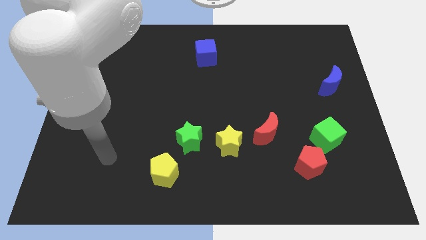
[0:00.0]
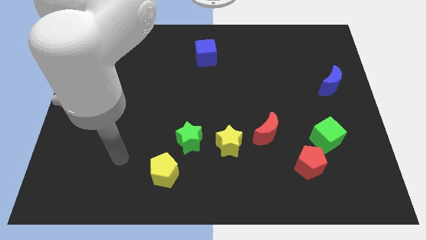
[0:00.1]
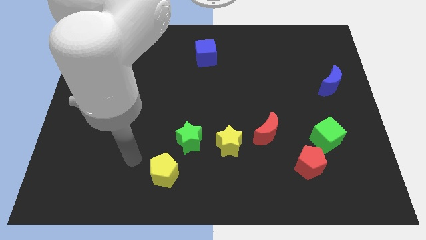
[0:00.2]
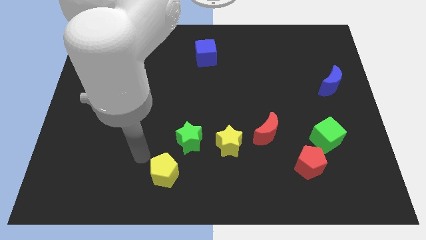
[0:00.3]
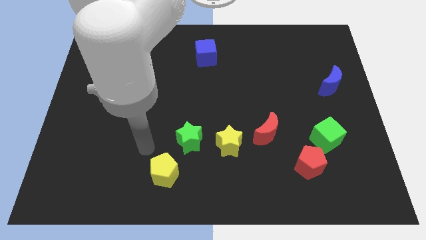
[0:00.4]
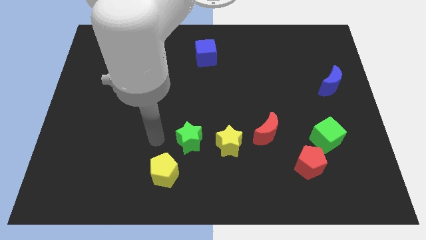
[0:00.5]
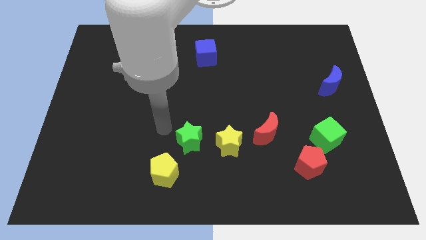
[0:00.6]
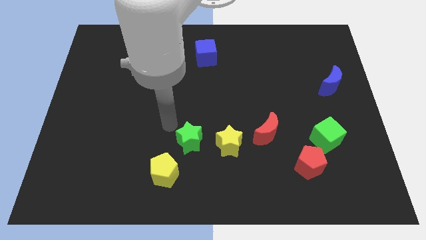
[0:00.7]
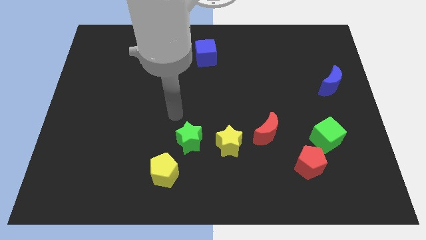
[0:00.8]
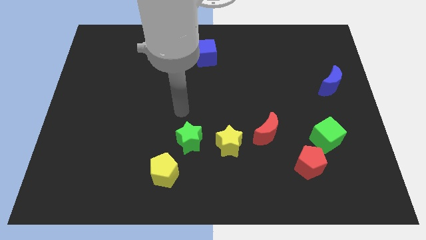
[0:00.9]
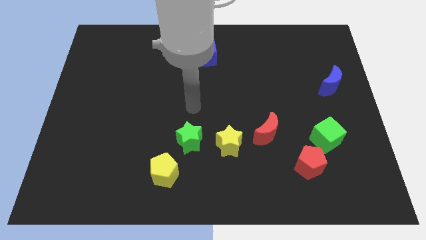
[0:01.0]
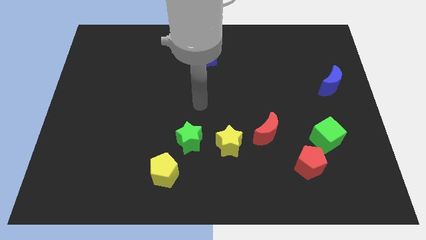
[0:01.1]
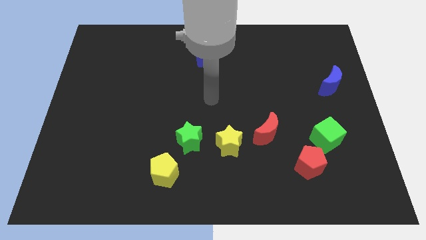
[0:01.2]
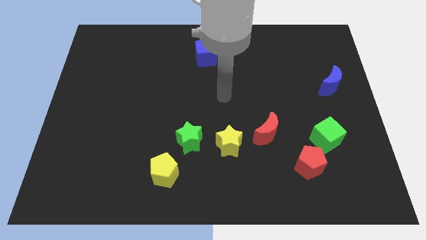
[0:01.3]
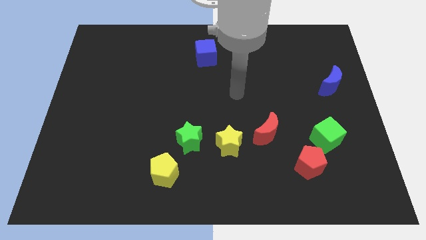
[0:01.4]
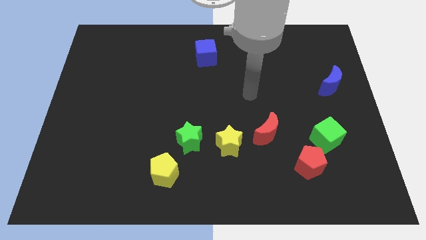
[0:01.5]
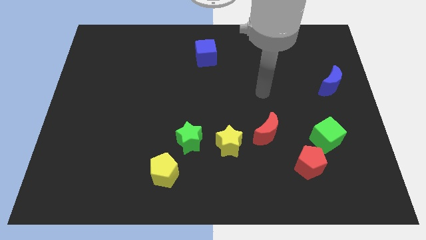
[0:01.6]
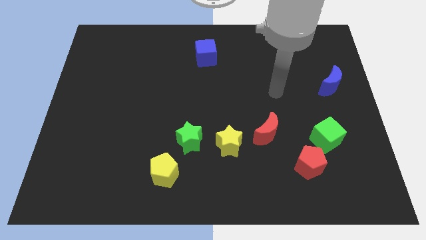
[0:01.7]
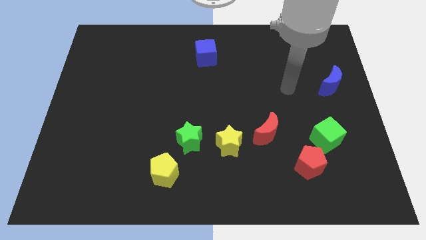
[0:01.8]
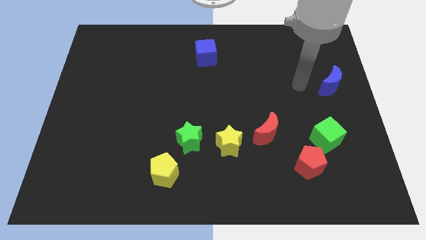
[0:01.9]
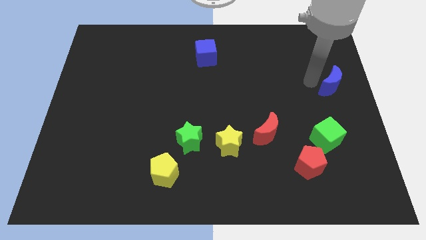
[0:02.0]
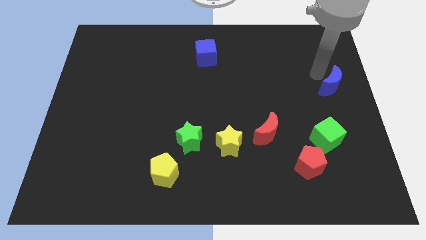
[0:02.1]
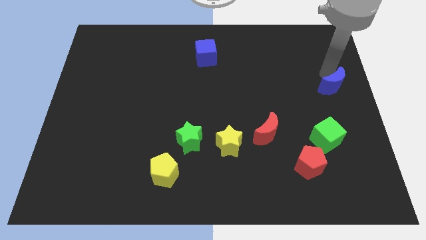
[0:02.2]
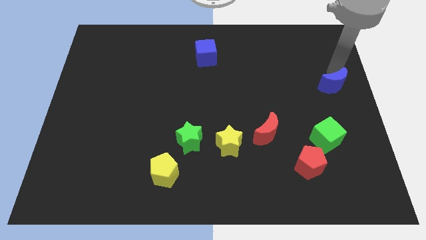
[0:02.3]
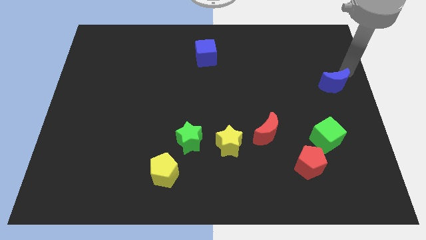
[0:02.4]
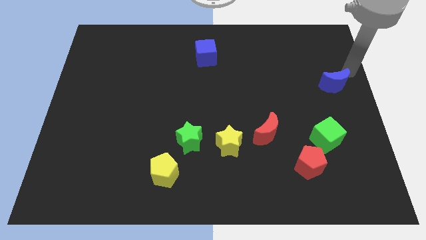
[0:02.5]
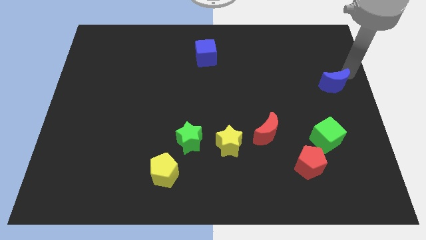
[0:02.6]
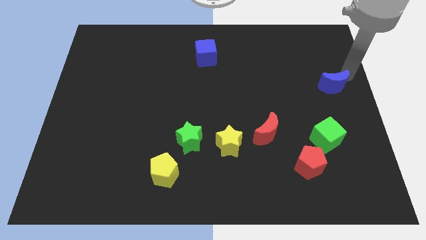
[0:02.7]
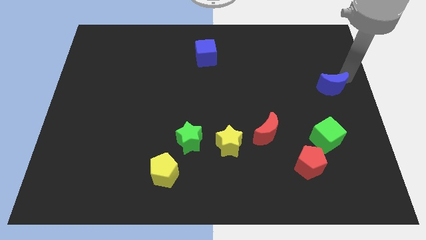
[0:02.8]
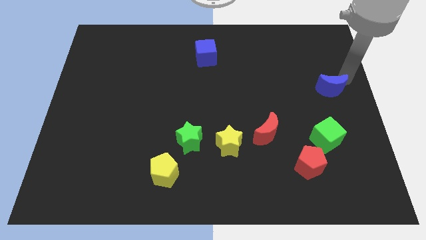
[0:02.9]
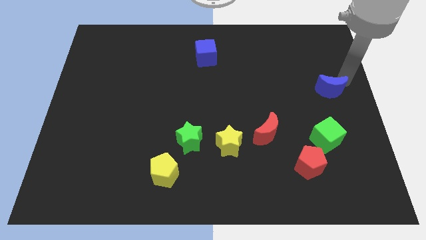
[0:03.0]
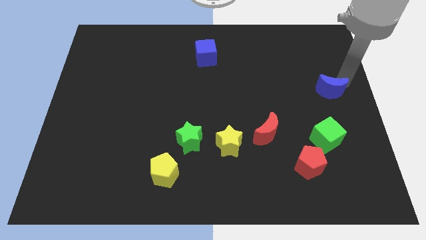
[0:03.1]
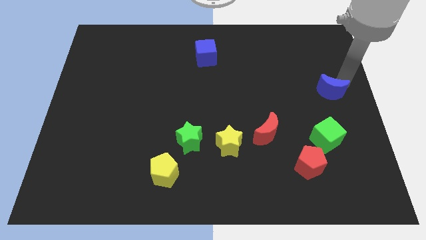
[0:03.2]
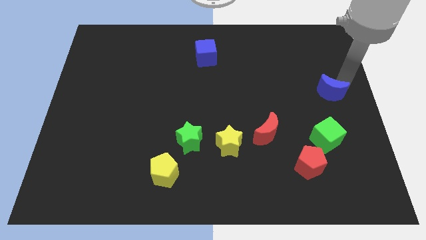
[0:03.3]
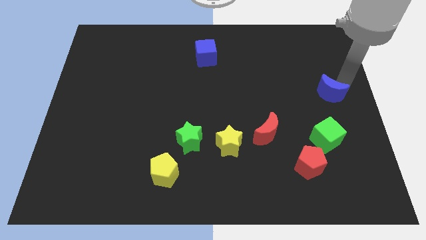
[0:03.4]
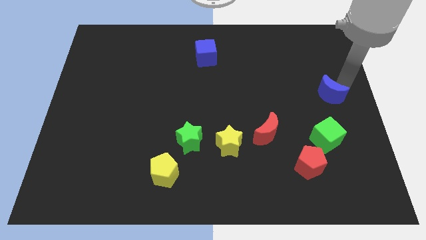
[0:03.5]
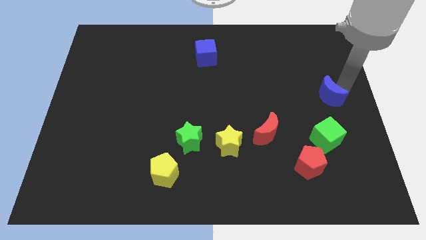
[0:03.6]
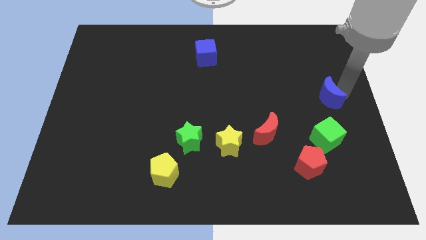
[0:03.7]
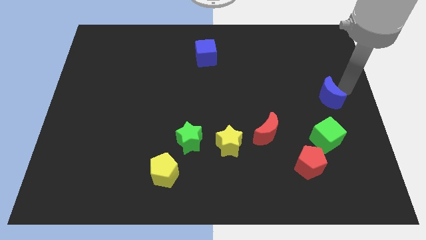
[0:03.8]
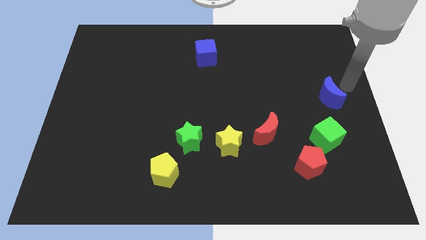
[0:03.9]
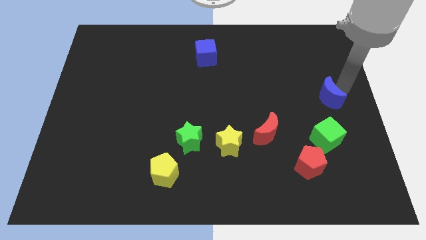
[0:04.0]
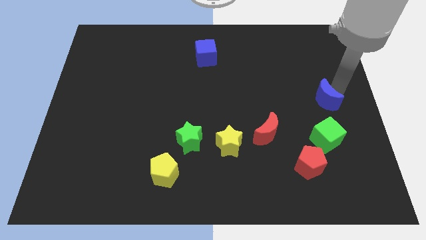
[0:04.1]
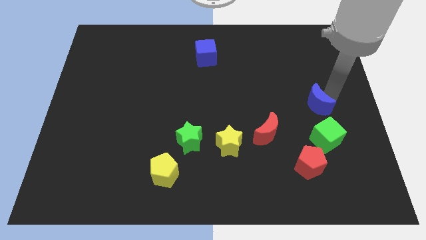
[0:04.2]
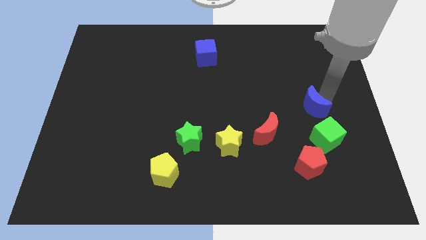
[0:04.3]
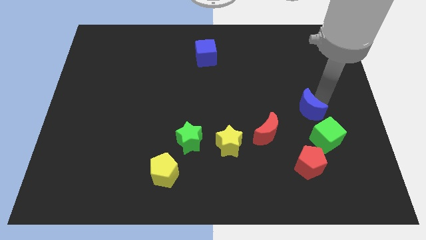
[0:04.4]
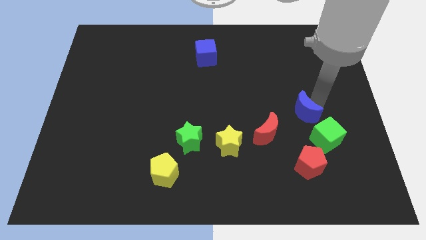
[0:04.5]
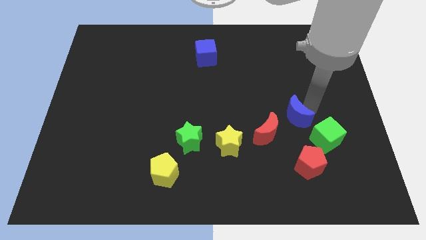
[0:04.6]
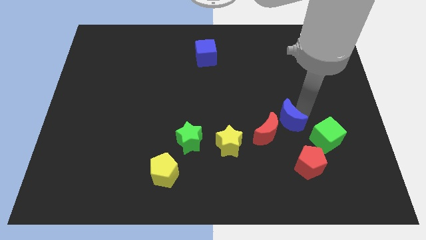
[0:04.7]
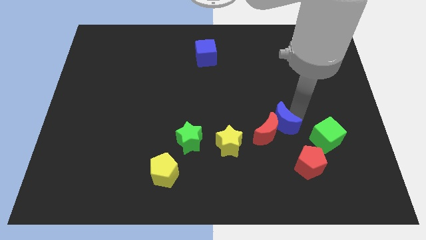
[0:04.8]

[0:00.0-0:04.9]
put the blue moon close to the red moon

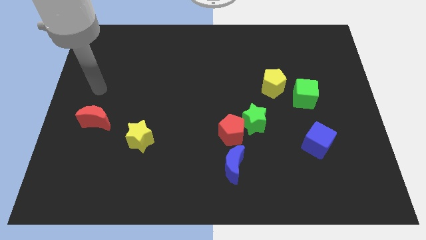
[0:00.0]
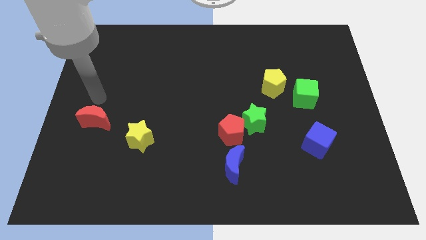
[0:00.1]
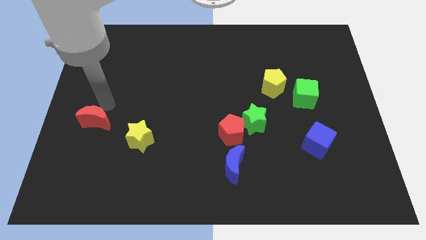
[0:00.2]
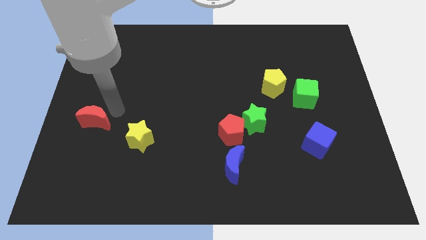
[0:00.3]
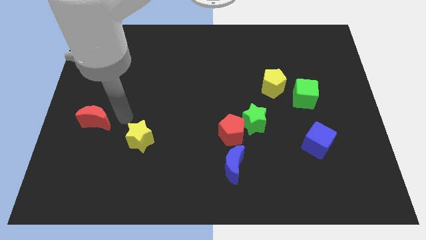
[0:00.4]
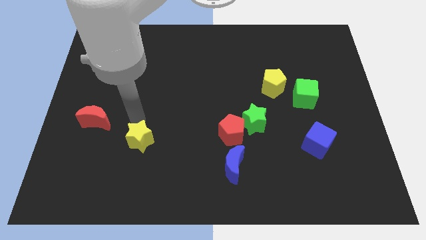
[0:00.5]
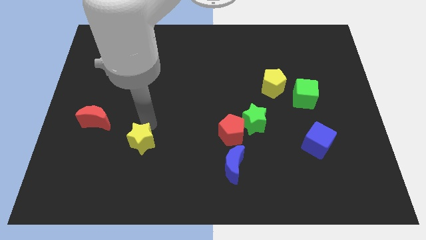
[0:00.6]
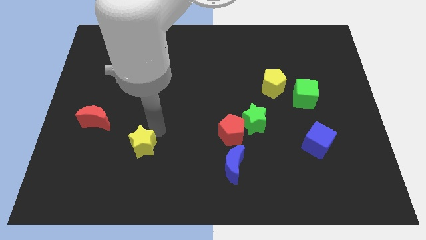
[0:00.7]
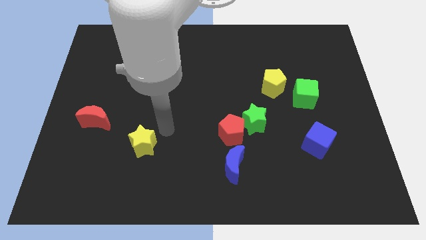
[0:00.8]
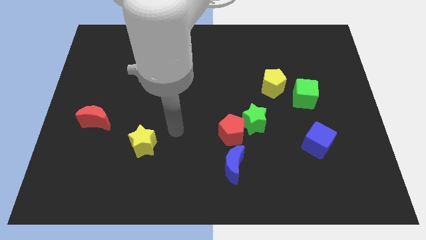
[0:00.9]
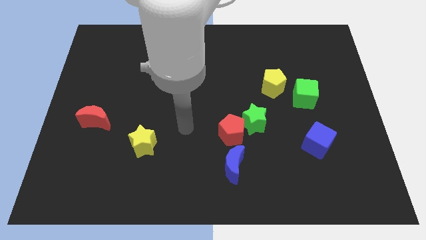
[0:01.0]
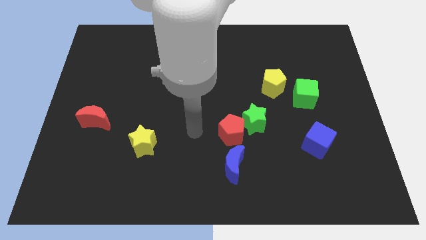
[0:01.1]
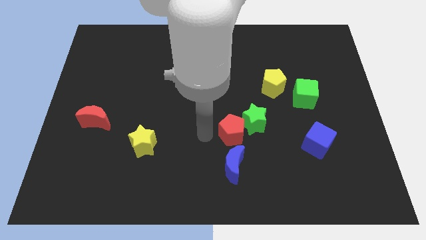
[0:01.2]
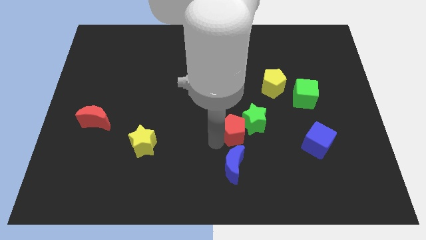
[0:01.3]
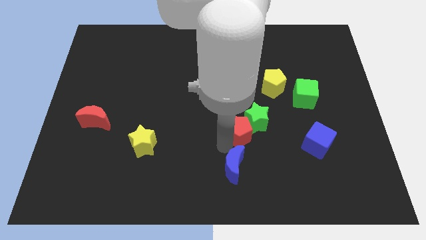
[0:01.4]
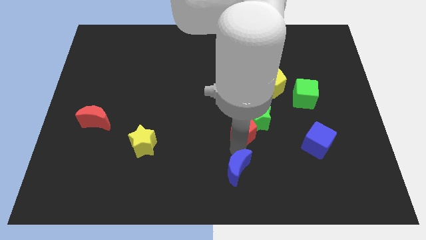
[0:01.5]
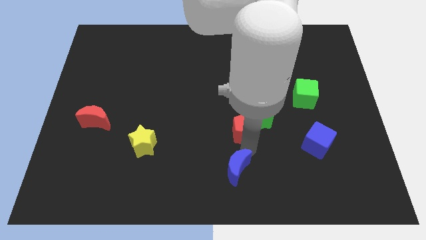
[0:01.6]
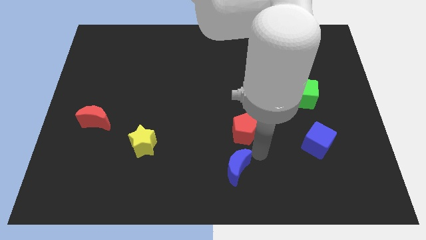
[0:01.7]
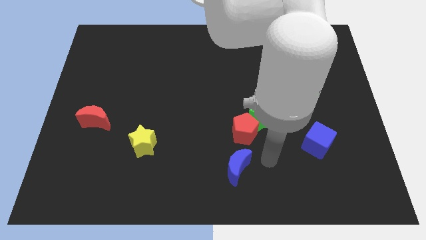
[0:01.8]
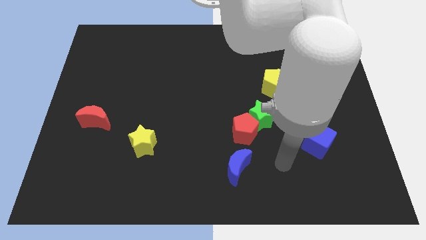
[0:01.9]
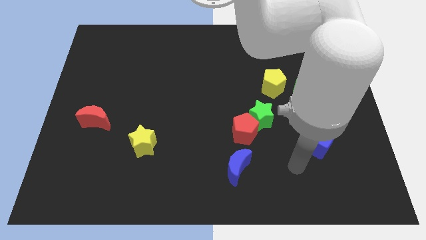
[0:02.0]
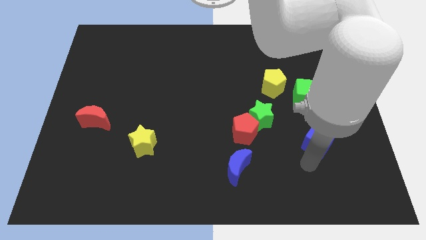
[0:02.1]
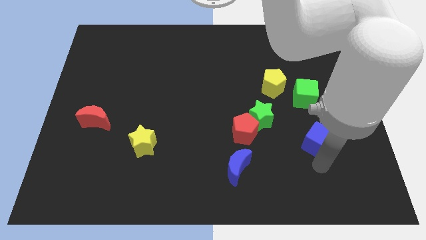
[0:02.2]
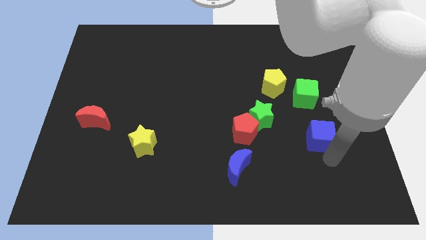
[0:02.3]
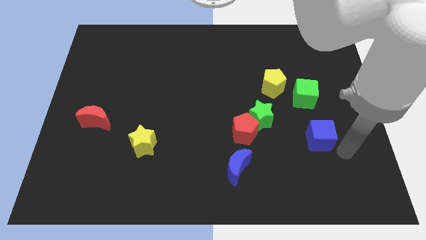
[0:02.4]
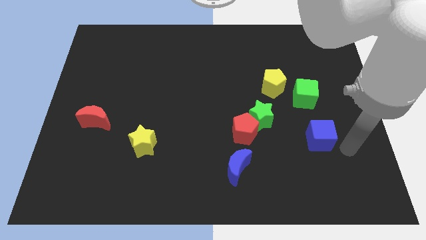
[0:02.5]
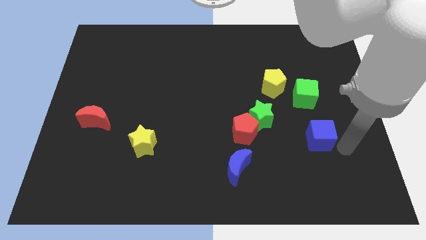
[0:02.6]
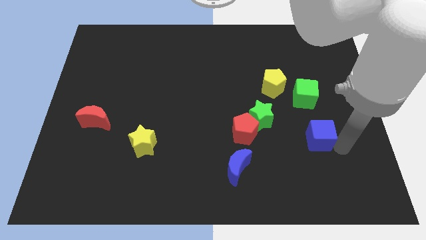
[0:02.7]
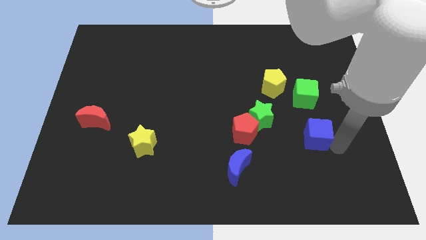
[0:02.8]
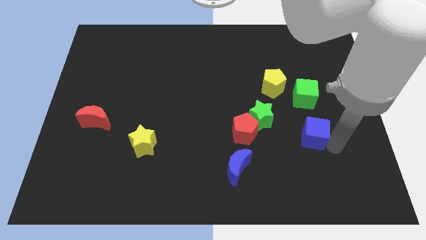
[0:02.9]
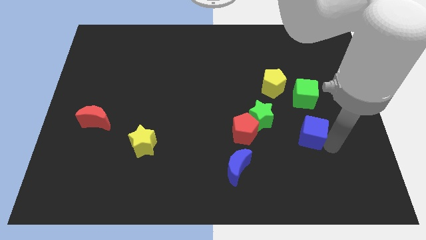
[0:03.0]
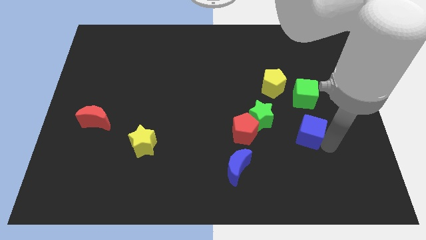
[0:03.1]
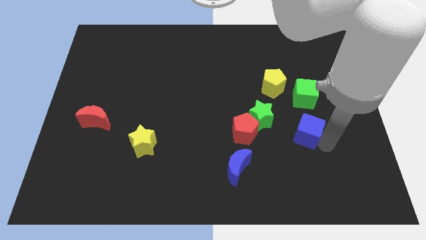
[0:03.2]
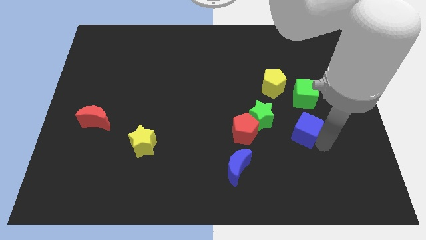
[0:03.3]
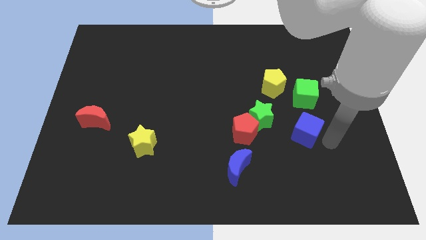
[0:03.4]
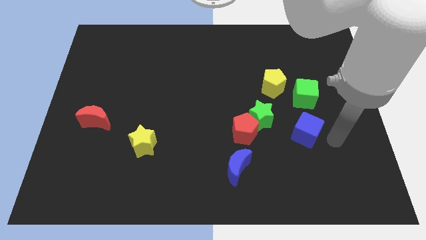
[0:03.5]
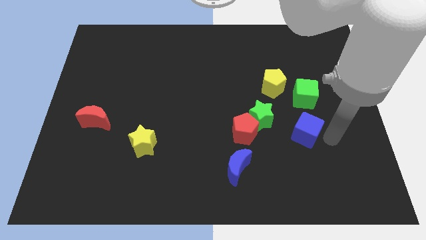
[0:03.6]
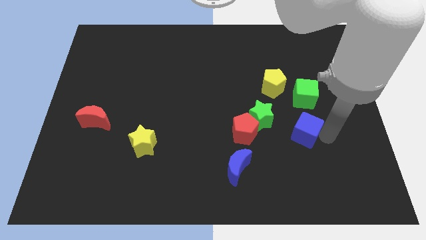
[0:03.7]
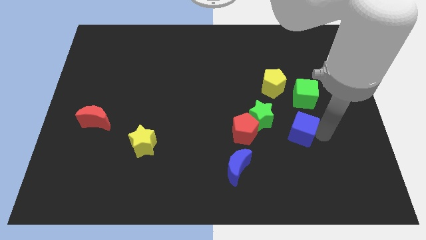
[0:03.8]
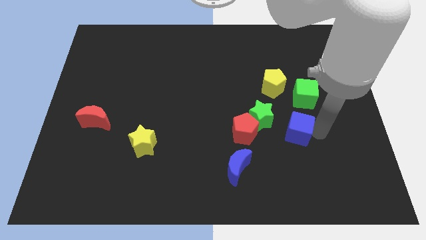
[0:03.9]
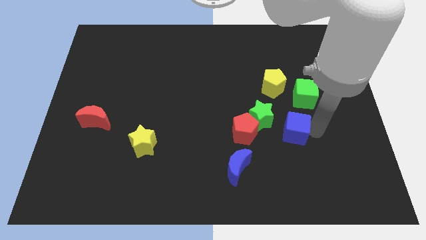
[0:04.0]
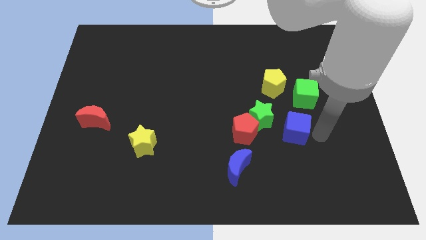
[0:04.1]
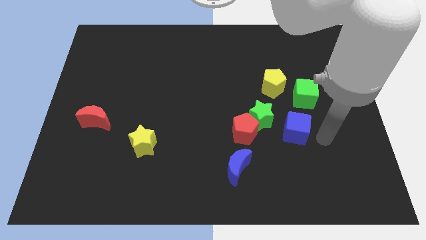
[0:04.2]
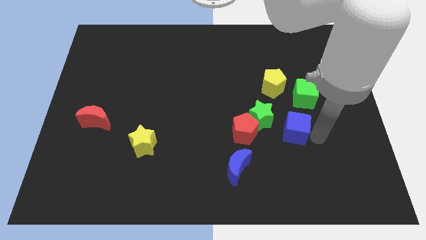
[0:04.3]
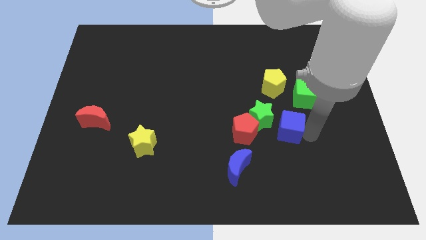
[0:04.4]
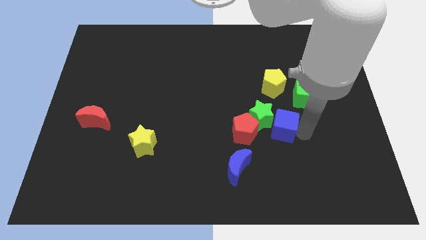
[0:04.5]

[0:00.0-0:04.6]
slide the blue cube to the green star
